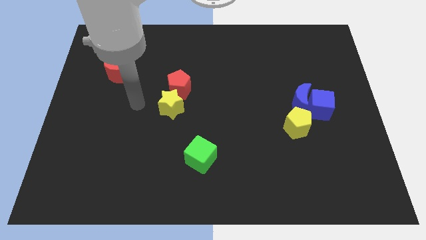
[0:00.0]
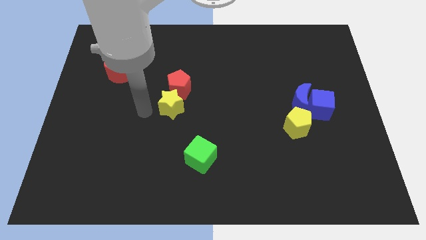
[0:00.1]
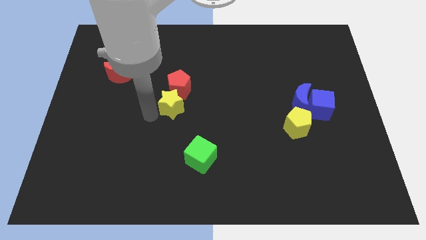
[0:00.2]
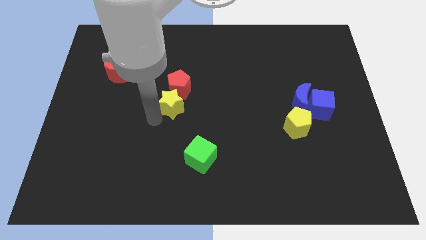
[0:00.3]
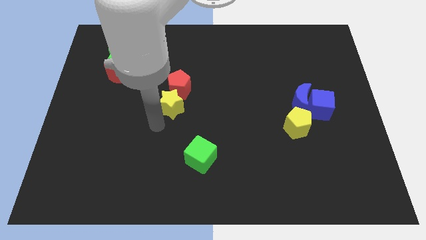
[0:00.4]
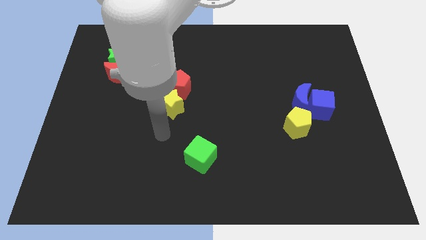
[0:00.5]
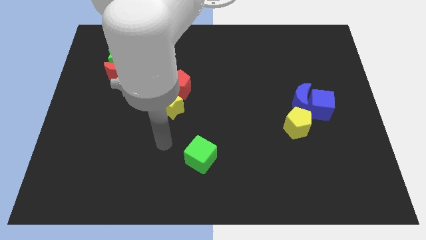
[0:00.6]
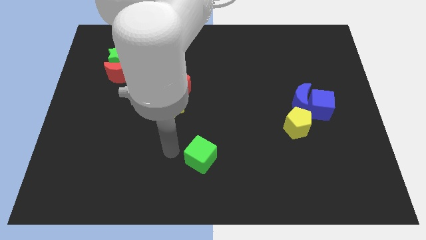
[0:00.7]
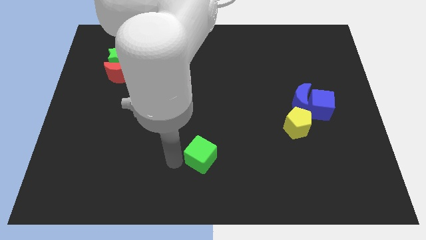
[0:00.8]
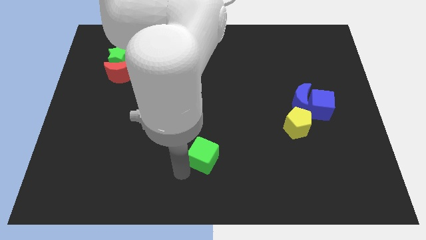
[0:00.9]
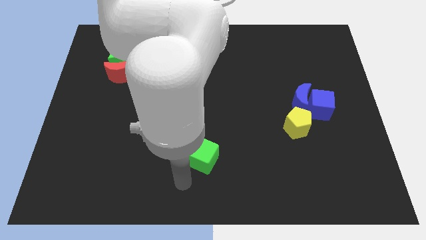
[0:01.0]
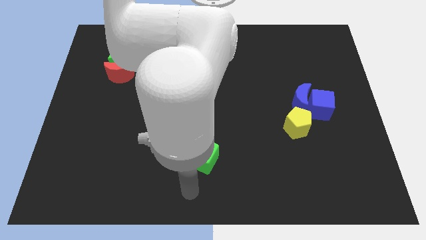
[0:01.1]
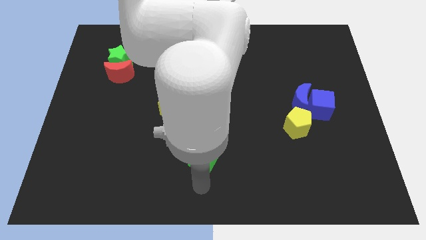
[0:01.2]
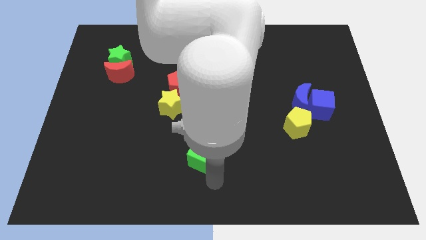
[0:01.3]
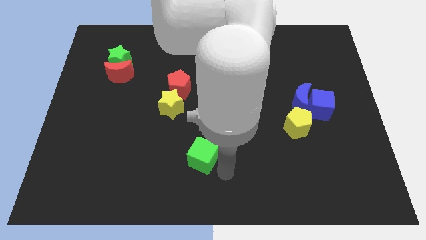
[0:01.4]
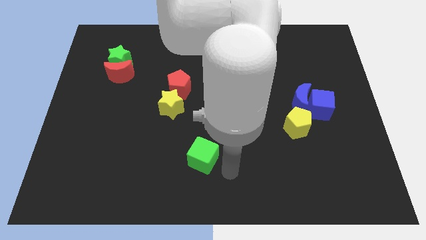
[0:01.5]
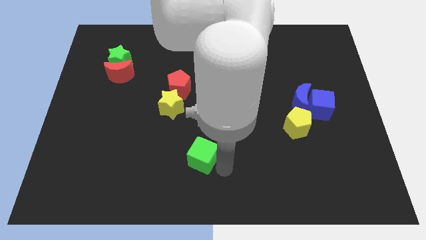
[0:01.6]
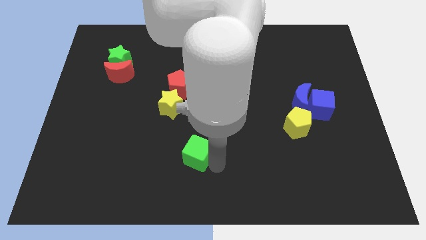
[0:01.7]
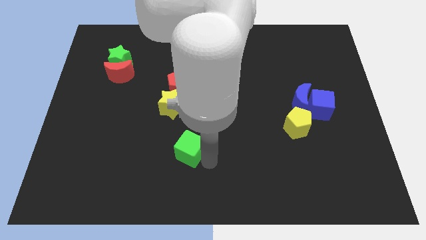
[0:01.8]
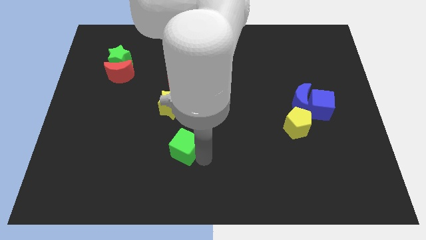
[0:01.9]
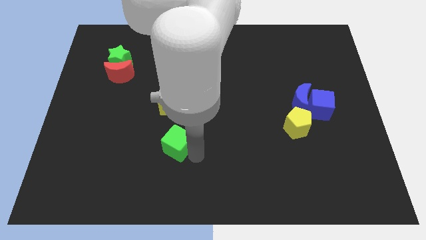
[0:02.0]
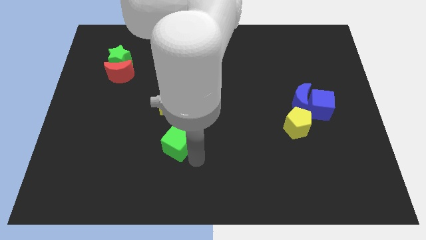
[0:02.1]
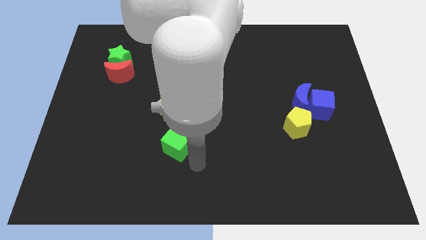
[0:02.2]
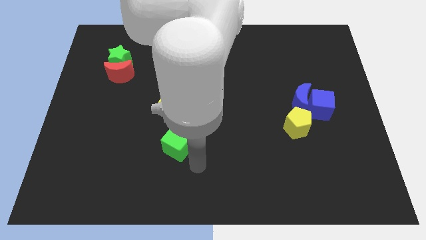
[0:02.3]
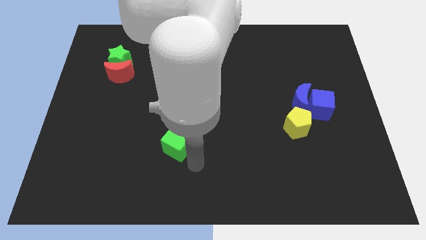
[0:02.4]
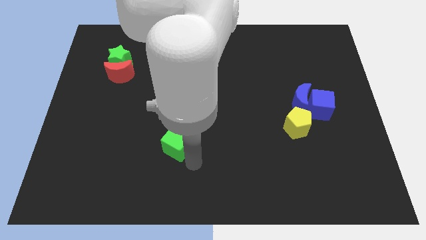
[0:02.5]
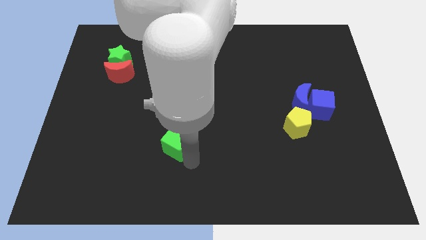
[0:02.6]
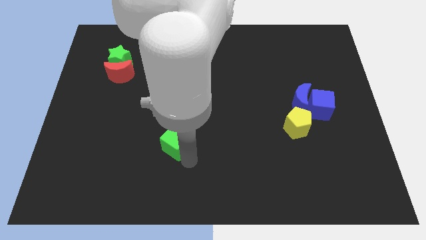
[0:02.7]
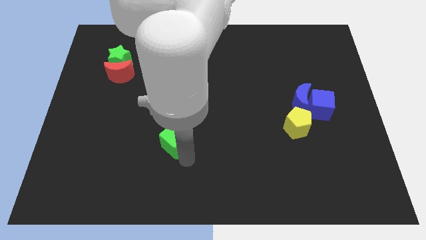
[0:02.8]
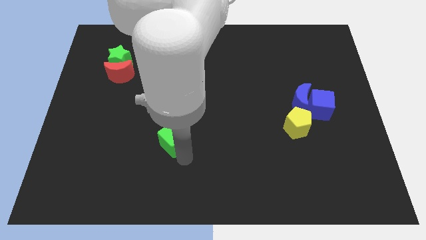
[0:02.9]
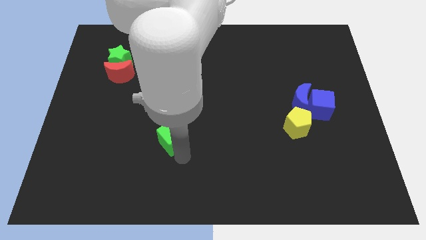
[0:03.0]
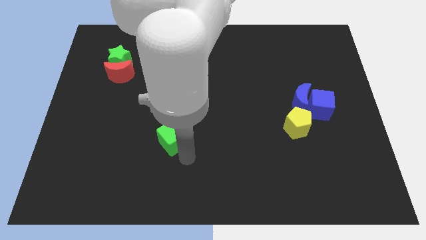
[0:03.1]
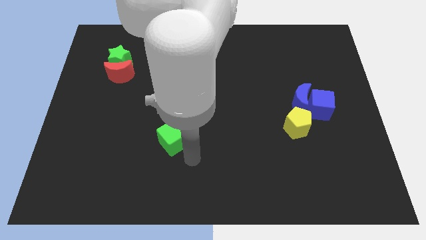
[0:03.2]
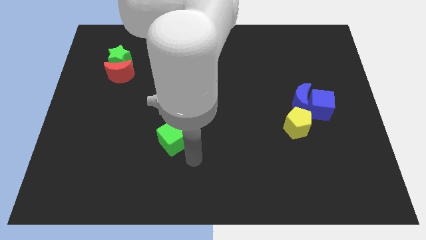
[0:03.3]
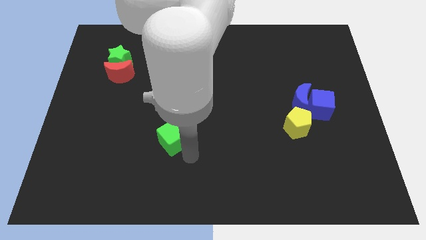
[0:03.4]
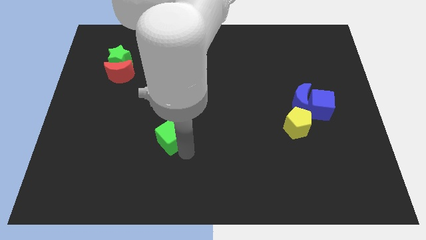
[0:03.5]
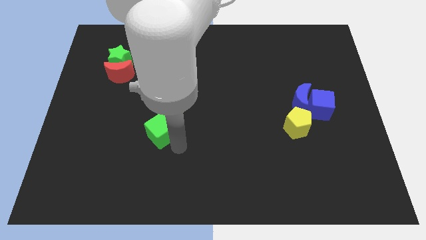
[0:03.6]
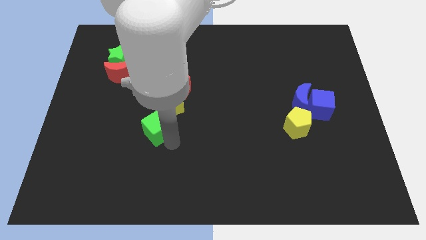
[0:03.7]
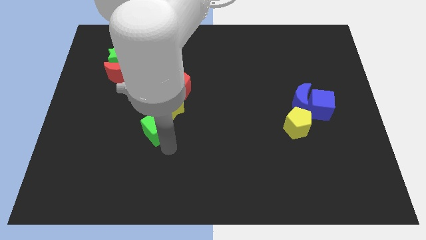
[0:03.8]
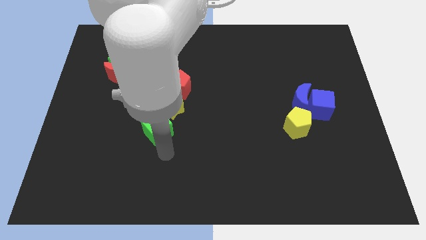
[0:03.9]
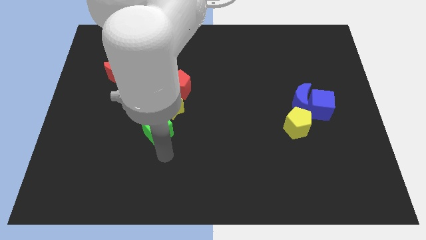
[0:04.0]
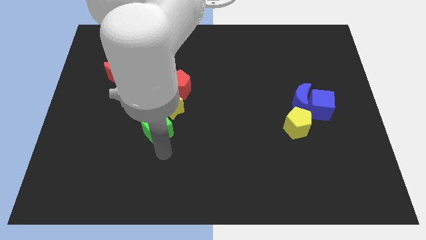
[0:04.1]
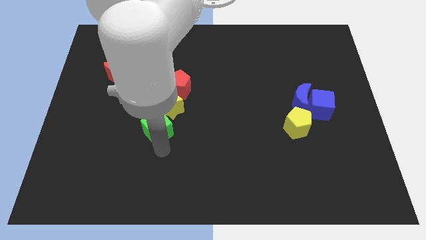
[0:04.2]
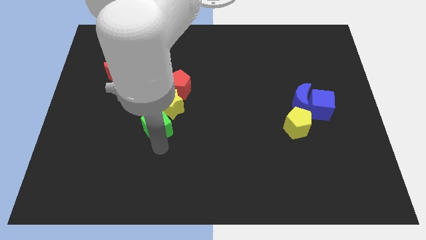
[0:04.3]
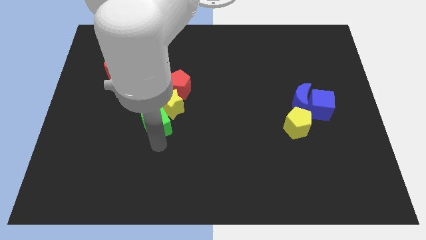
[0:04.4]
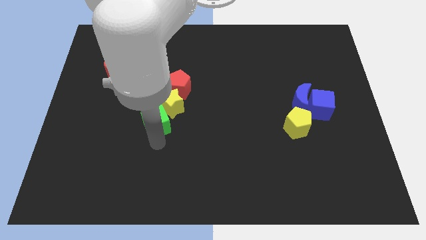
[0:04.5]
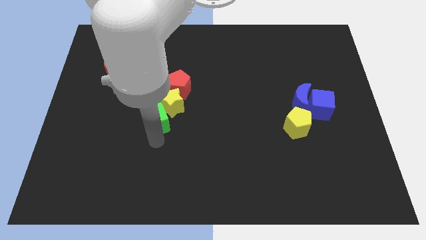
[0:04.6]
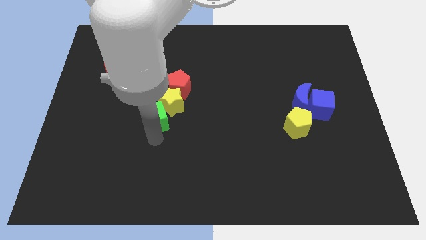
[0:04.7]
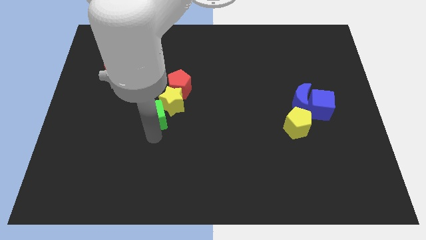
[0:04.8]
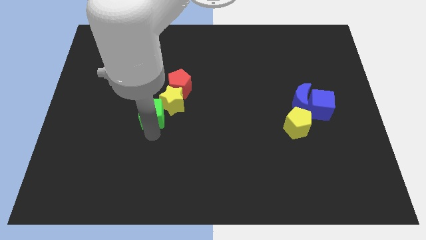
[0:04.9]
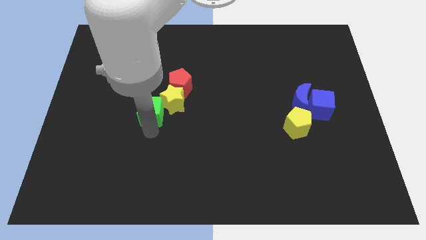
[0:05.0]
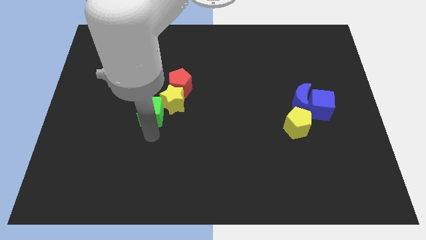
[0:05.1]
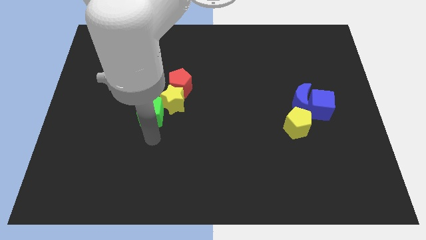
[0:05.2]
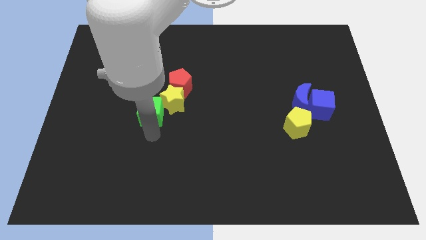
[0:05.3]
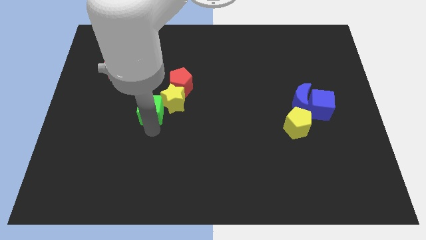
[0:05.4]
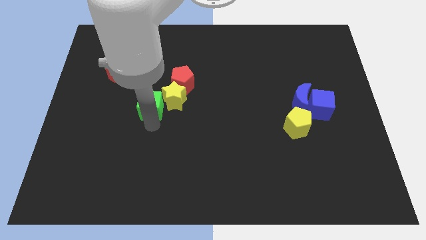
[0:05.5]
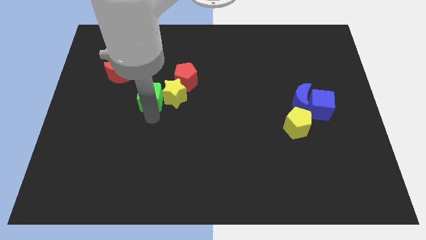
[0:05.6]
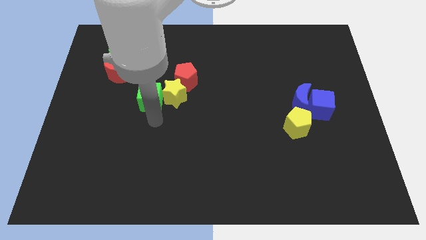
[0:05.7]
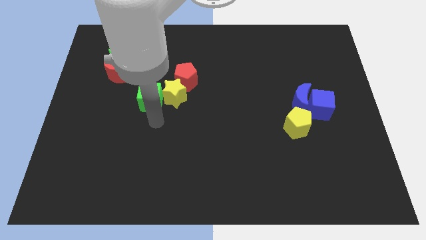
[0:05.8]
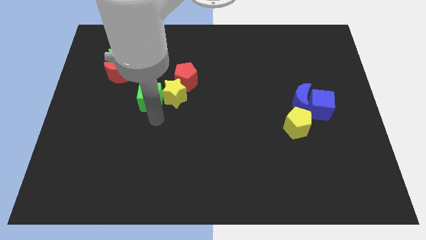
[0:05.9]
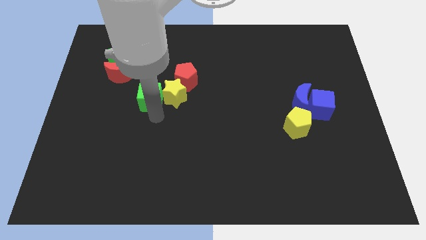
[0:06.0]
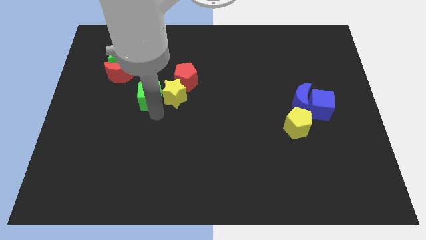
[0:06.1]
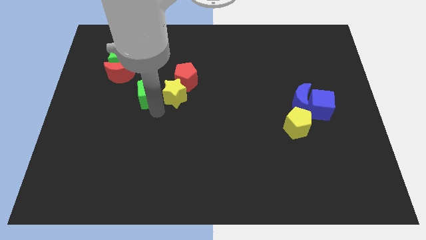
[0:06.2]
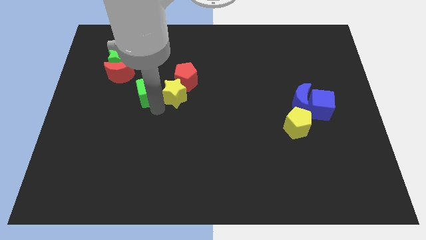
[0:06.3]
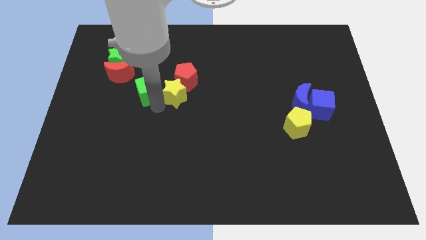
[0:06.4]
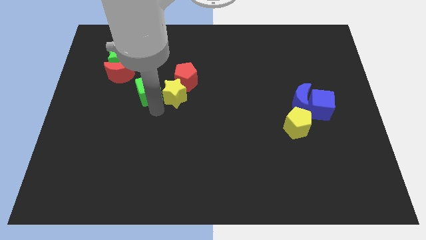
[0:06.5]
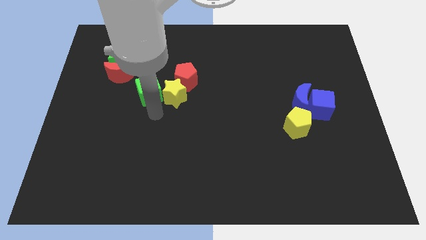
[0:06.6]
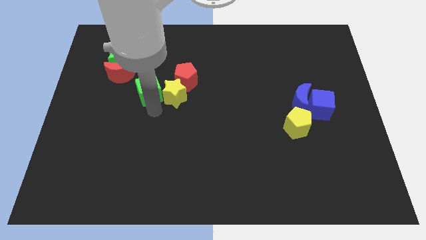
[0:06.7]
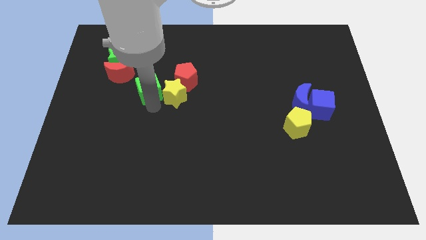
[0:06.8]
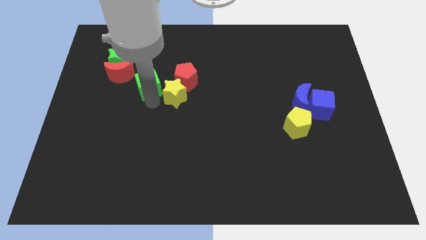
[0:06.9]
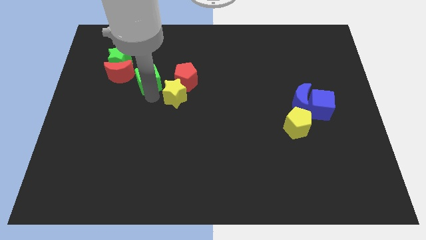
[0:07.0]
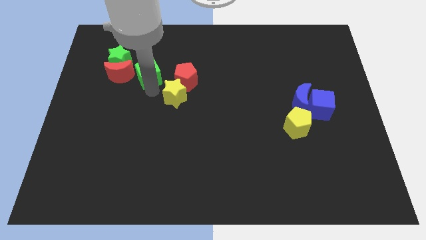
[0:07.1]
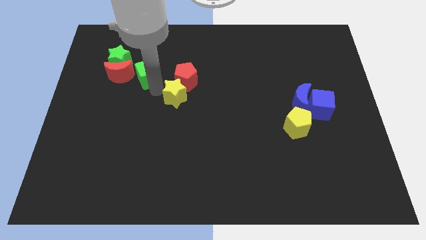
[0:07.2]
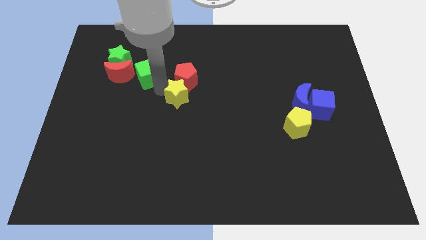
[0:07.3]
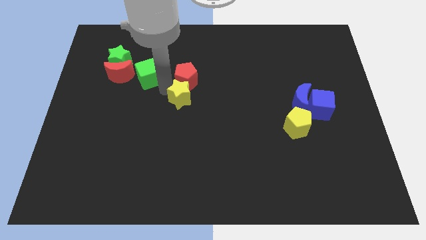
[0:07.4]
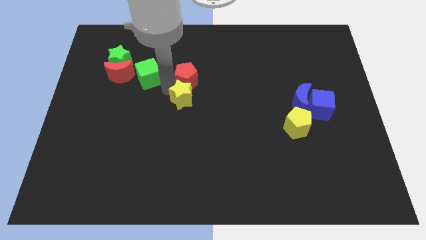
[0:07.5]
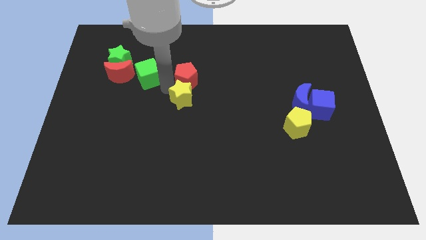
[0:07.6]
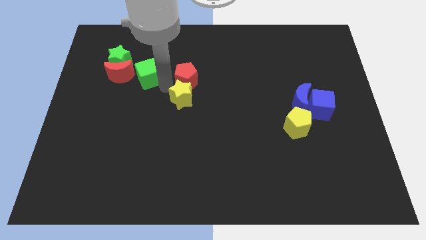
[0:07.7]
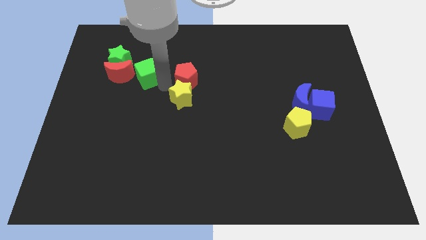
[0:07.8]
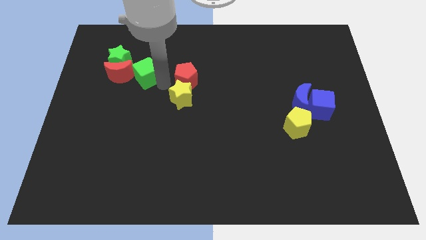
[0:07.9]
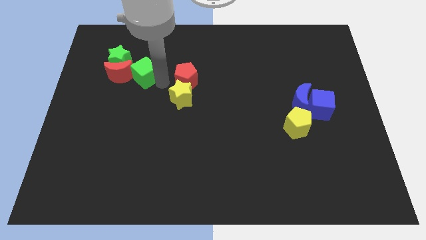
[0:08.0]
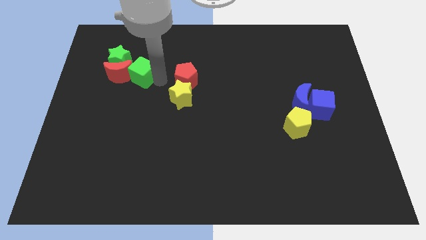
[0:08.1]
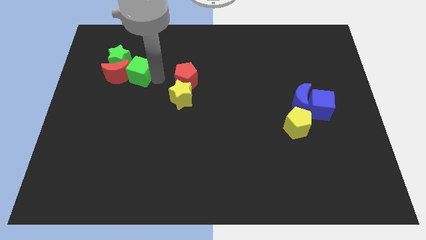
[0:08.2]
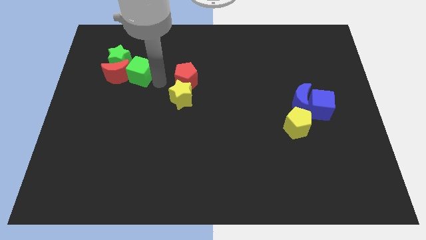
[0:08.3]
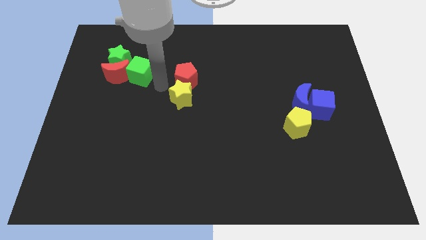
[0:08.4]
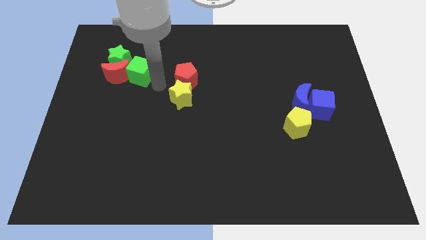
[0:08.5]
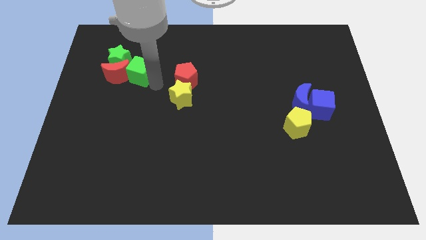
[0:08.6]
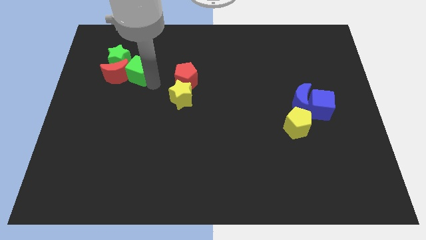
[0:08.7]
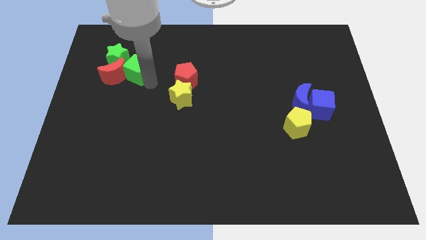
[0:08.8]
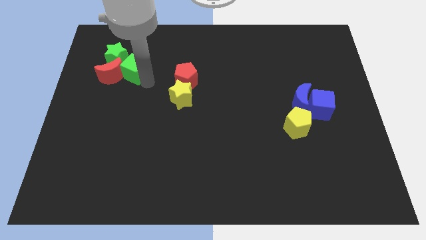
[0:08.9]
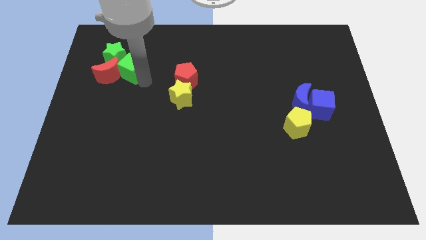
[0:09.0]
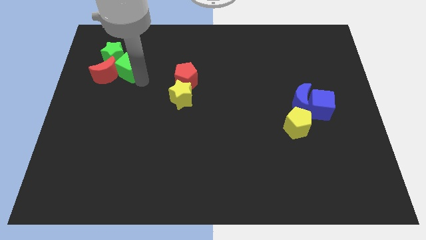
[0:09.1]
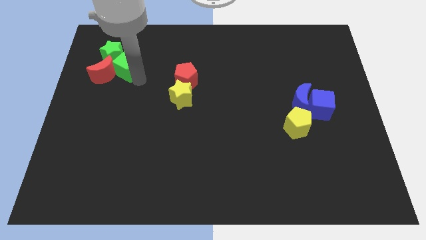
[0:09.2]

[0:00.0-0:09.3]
put the green cube next to the green star
